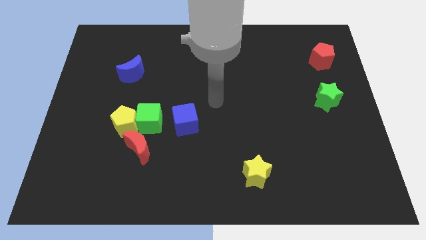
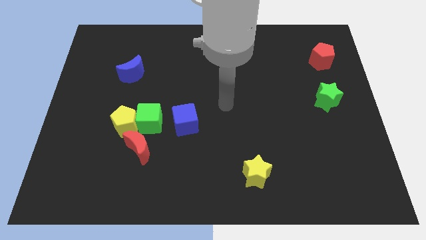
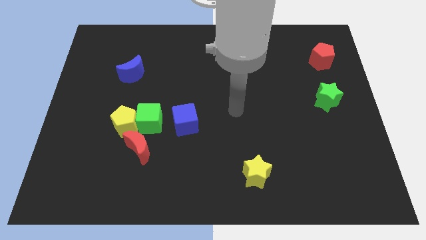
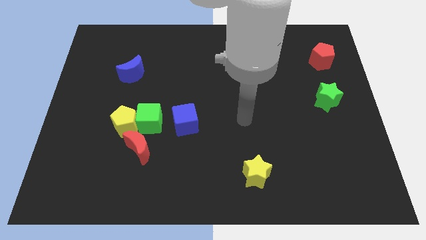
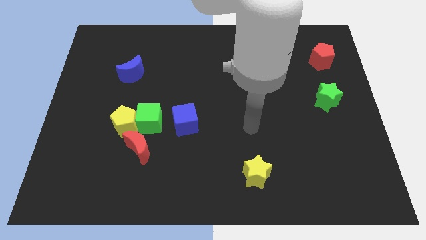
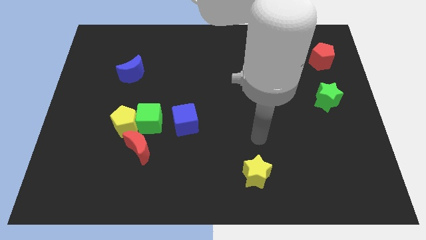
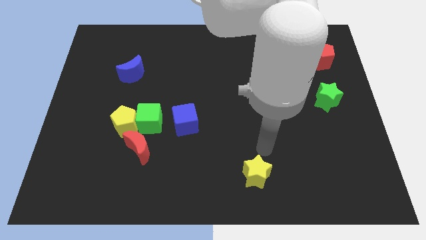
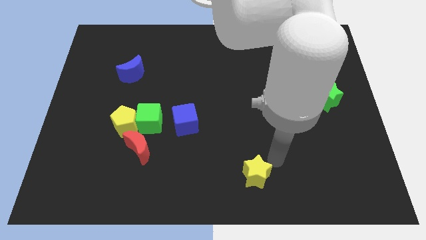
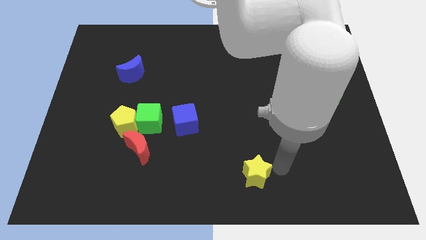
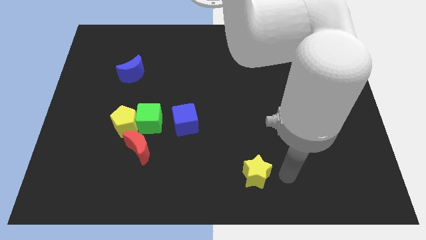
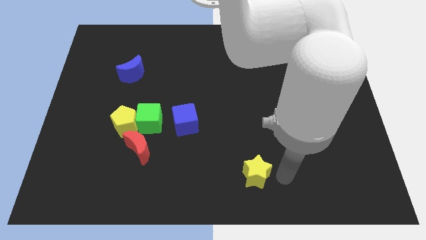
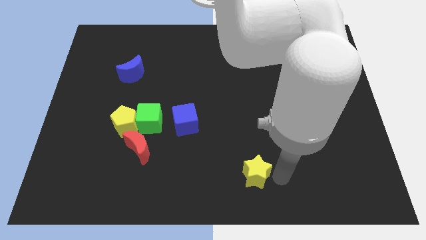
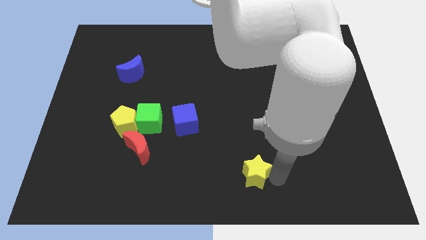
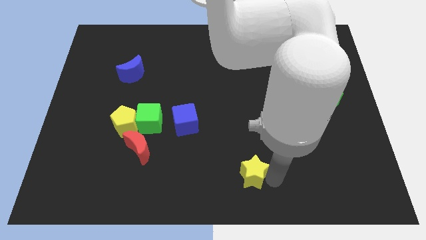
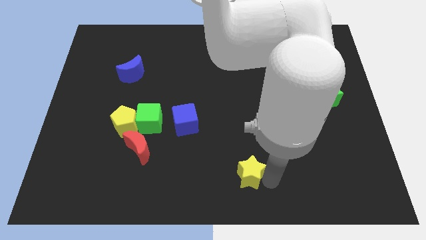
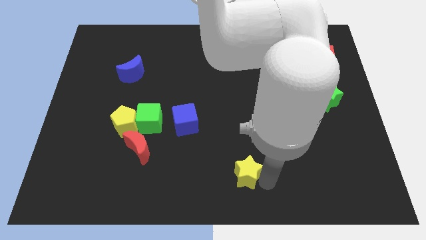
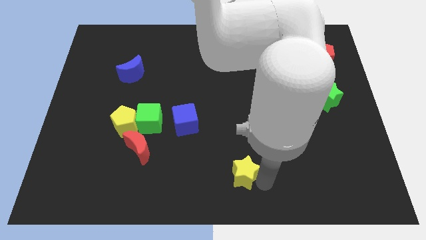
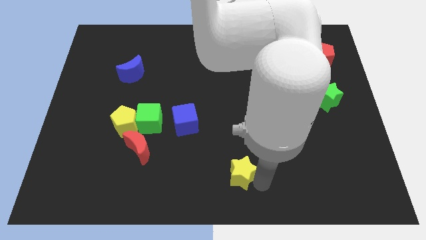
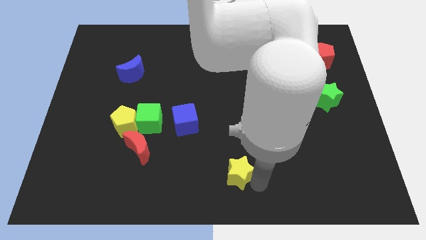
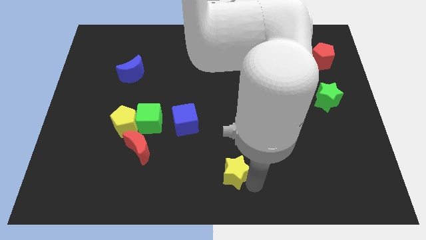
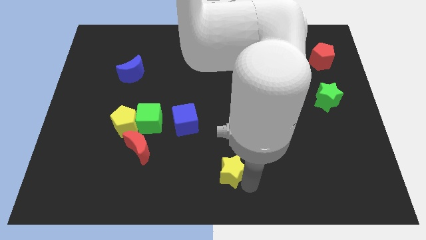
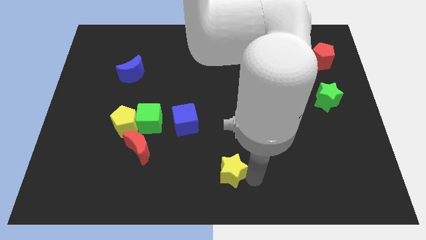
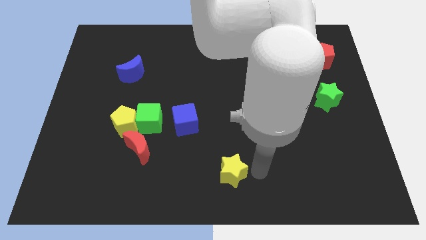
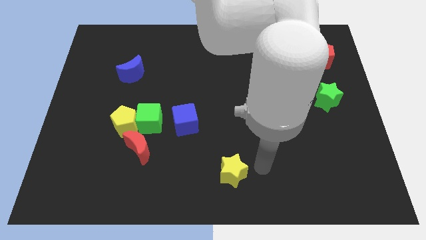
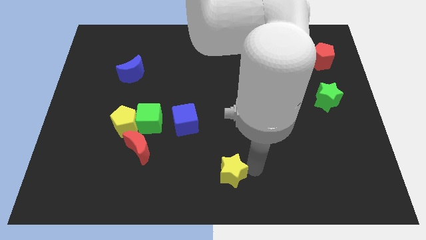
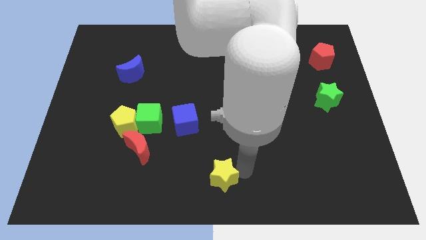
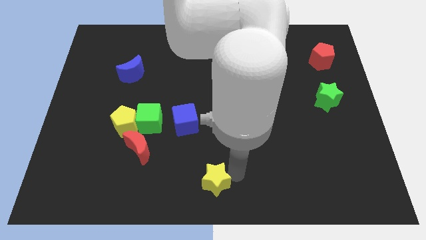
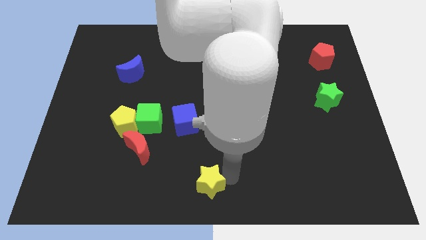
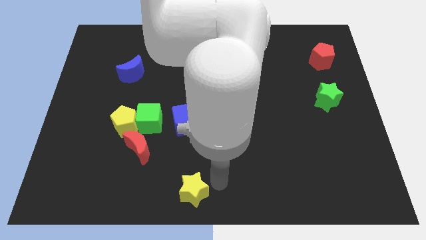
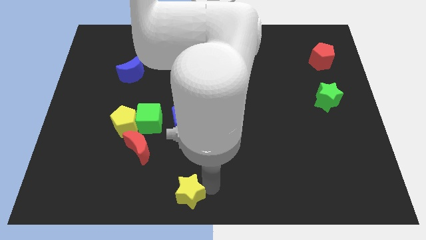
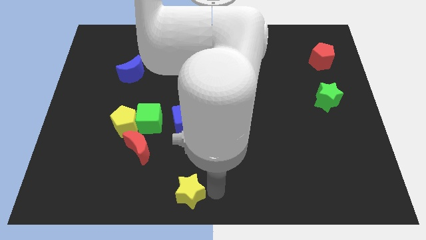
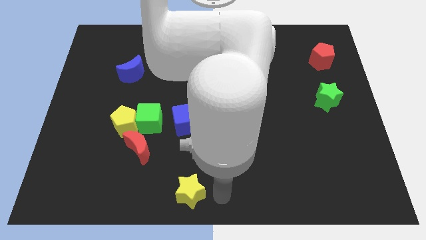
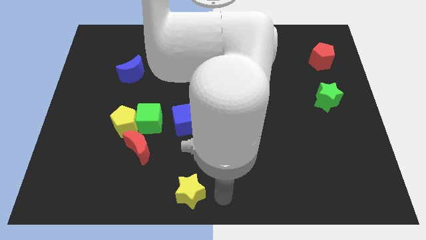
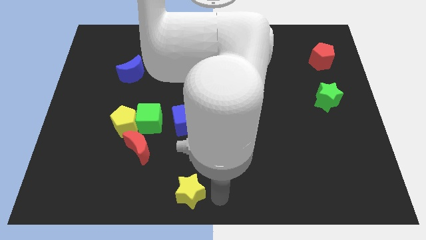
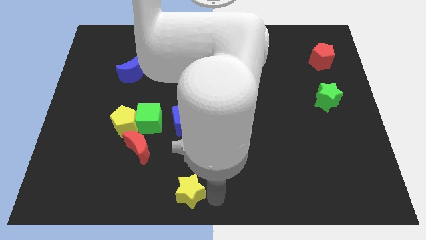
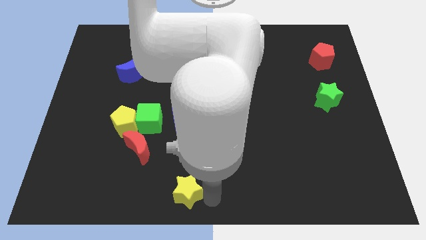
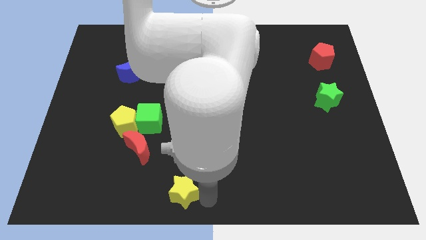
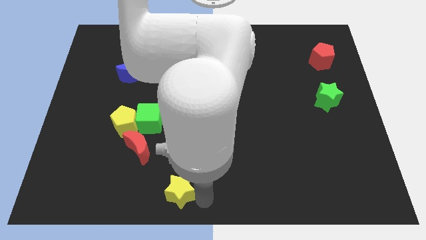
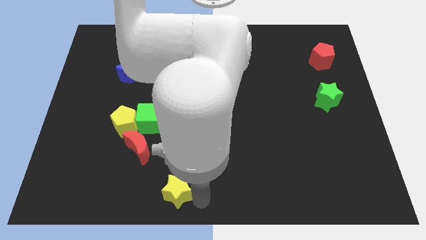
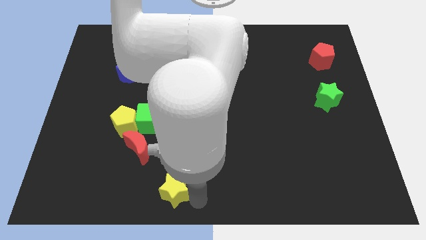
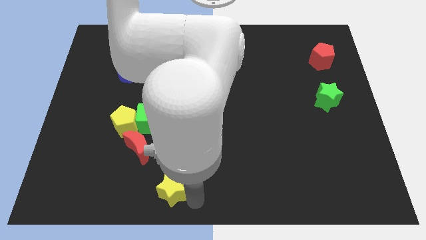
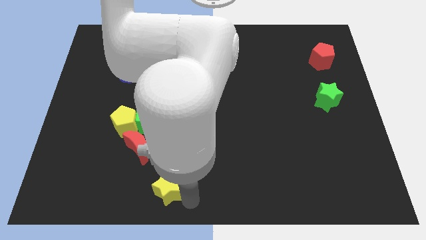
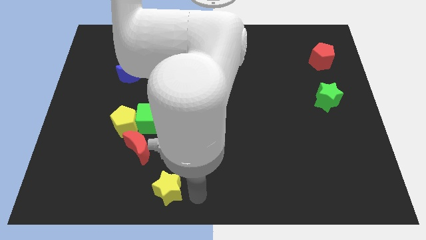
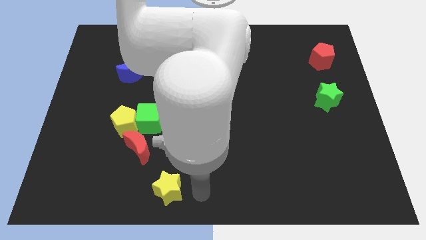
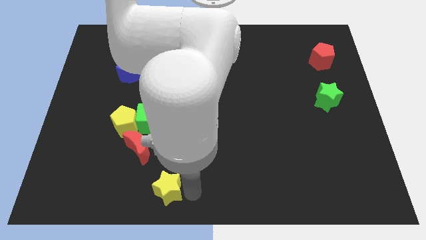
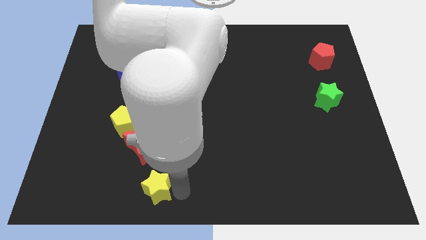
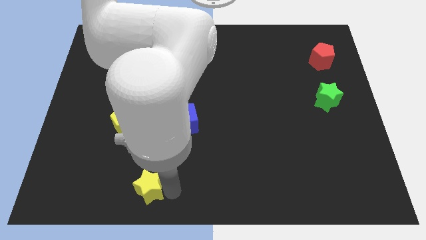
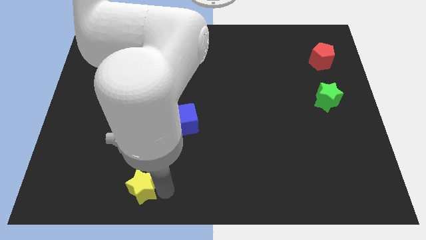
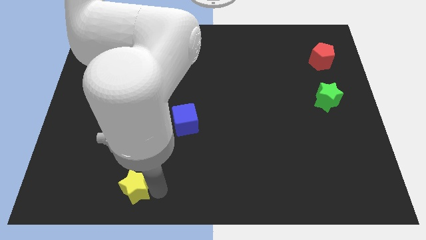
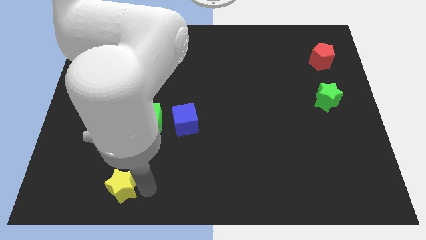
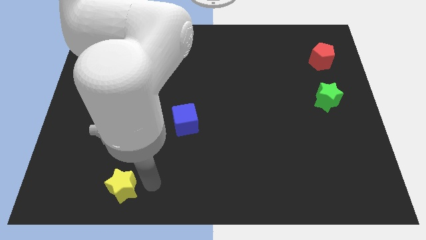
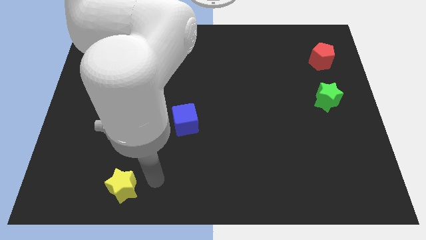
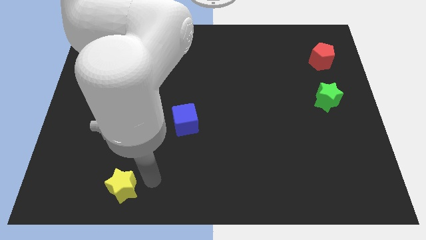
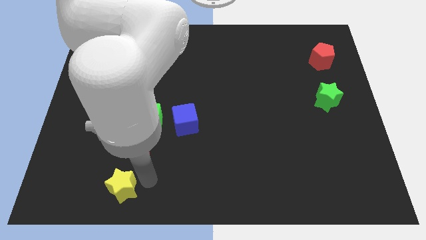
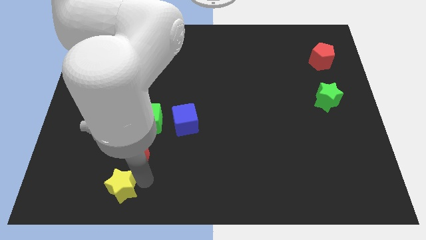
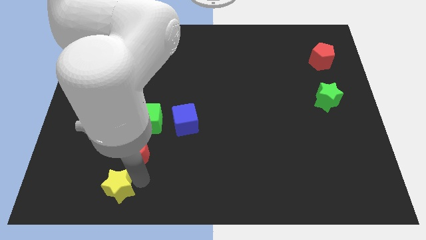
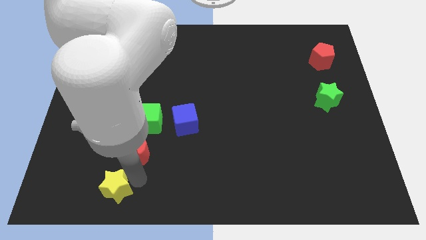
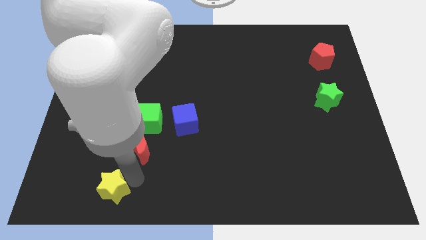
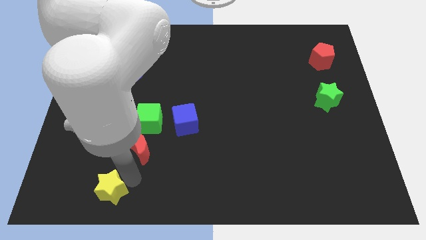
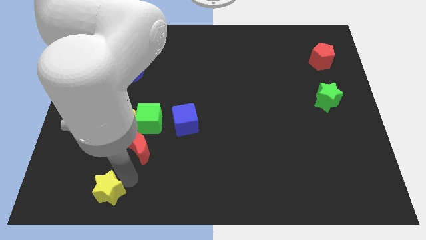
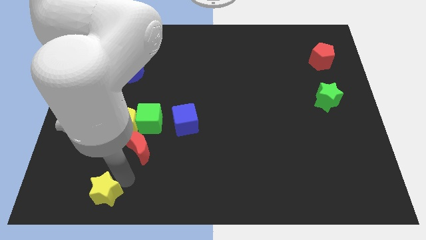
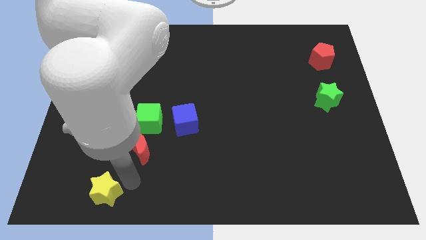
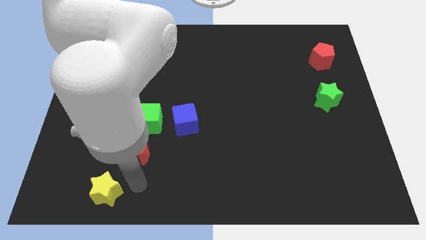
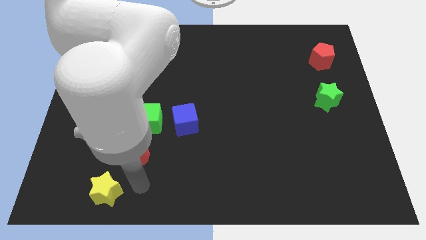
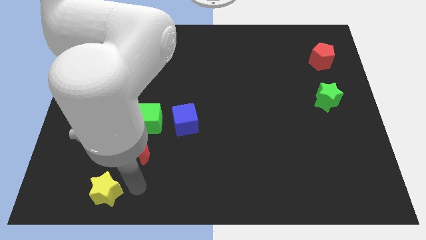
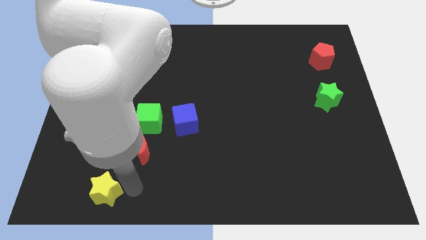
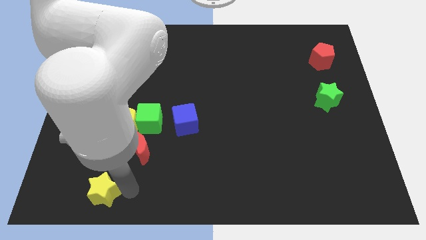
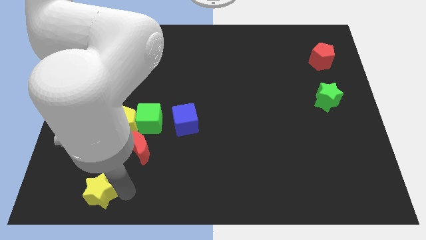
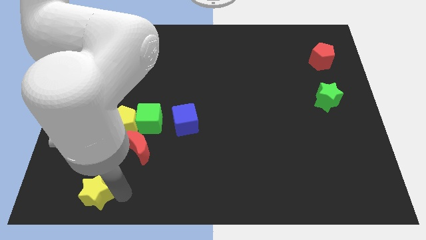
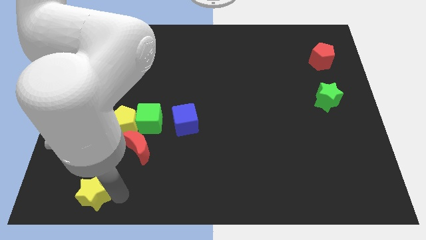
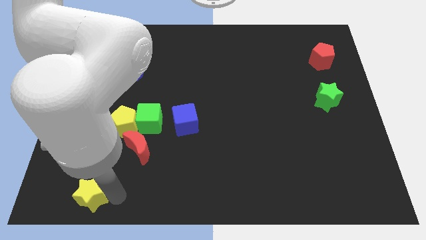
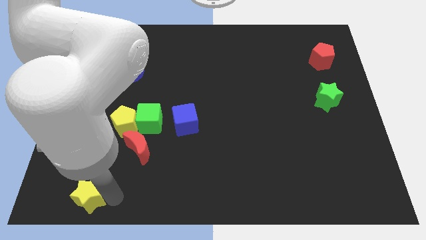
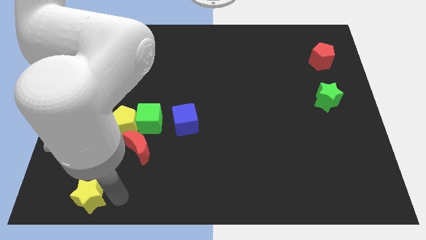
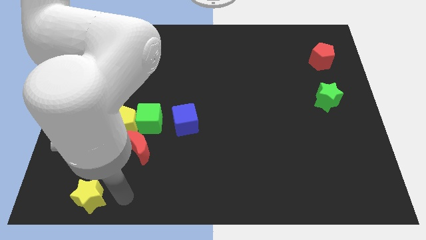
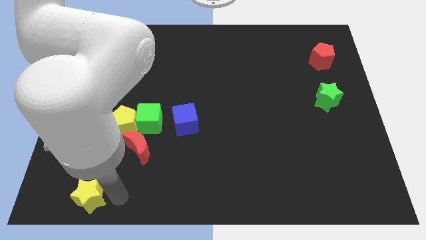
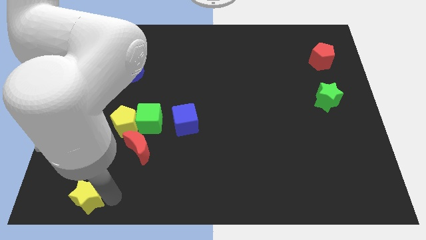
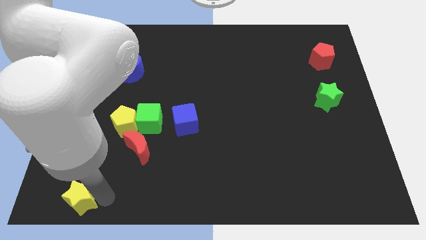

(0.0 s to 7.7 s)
push the yellow star to the bottom left
